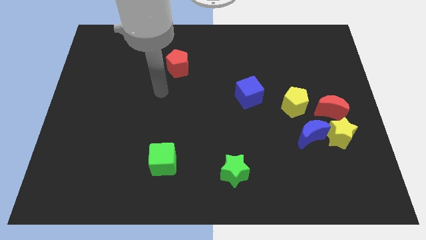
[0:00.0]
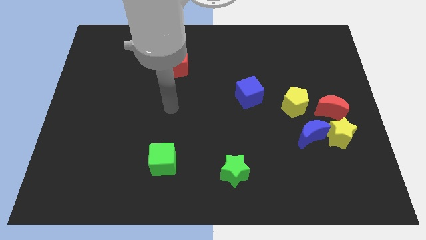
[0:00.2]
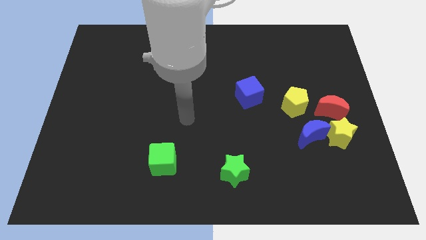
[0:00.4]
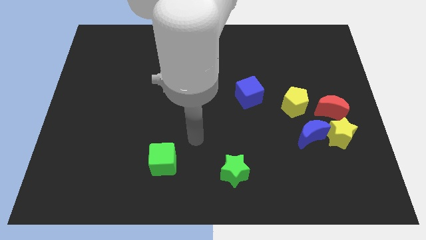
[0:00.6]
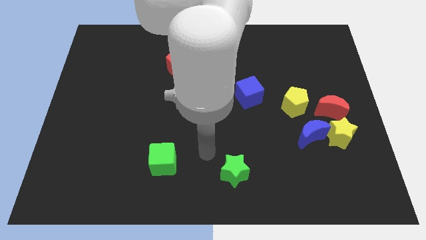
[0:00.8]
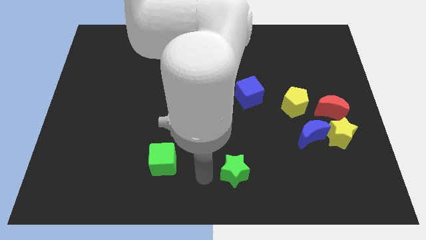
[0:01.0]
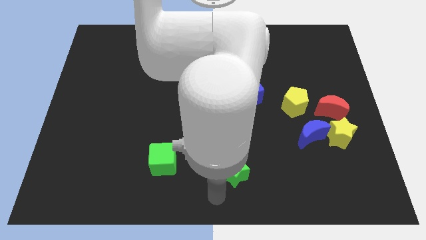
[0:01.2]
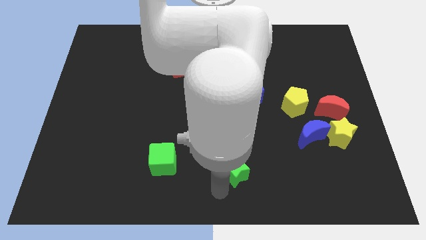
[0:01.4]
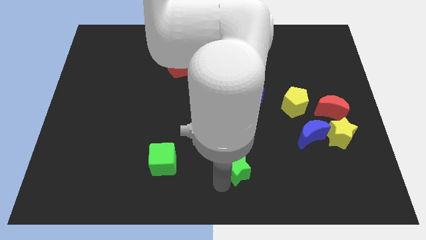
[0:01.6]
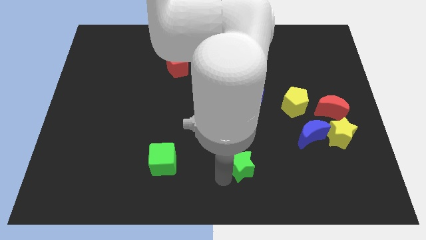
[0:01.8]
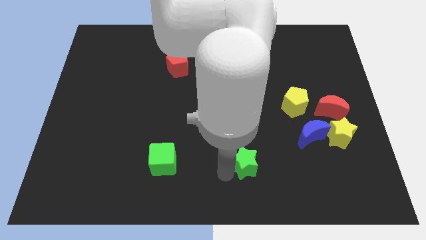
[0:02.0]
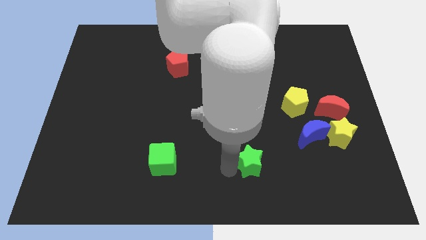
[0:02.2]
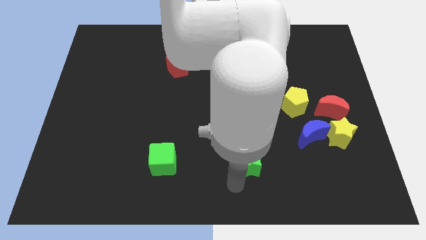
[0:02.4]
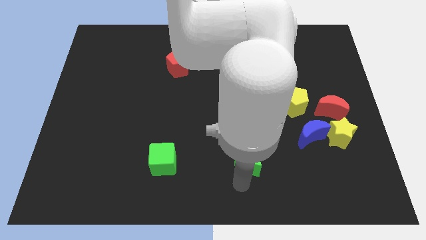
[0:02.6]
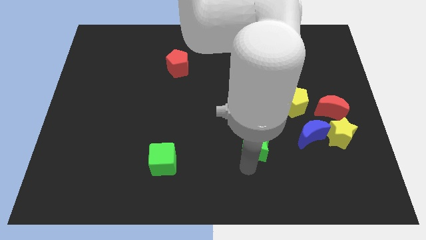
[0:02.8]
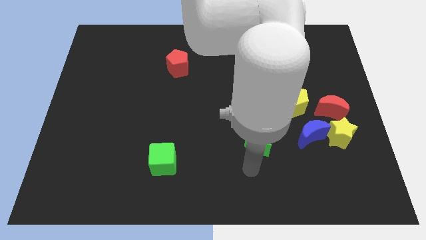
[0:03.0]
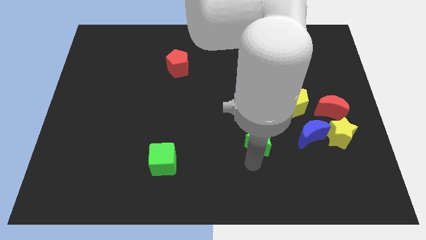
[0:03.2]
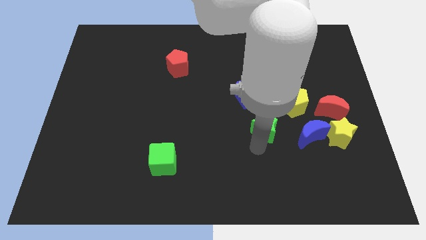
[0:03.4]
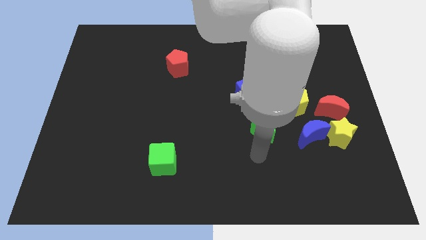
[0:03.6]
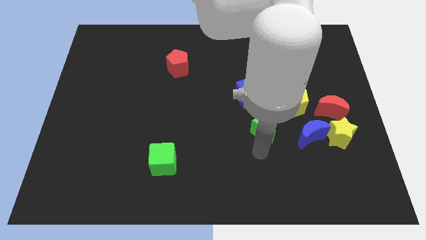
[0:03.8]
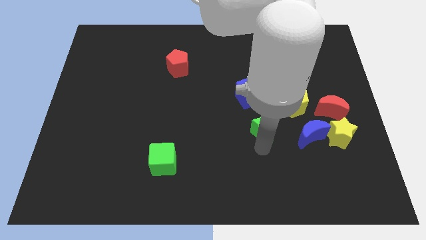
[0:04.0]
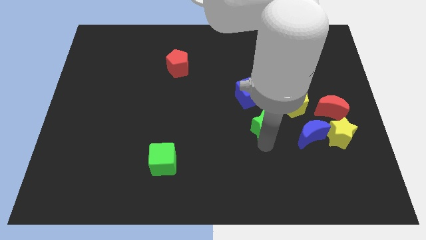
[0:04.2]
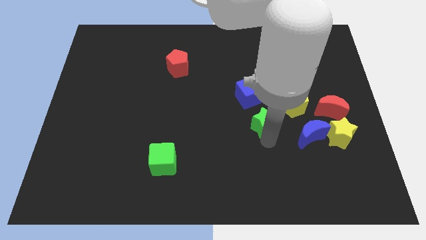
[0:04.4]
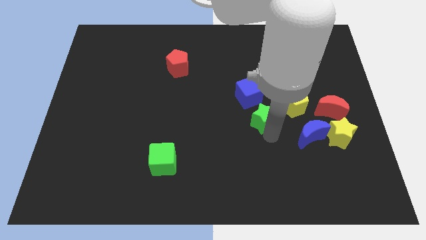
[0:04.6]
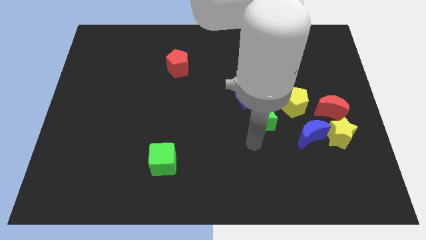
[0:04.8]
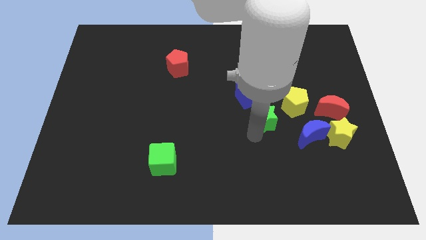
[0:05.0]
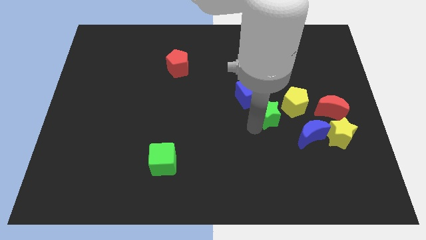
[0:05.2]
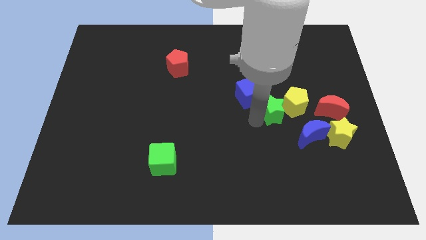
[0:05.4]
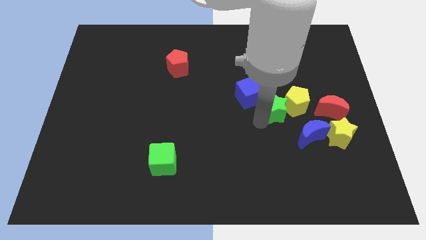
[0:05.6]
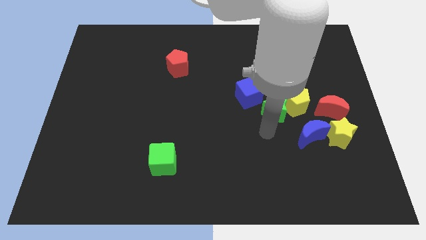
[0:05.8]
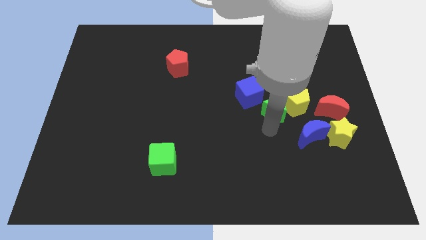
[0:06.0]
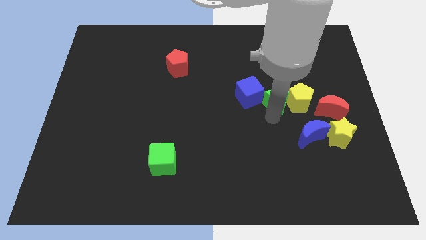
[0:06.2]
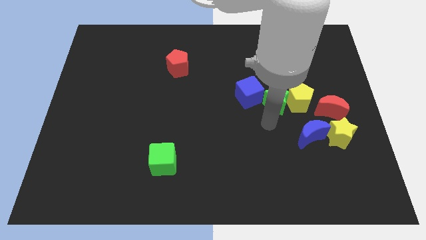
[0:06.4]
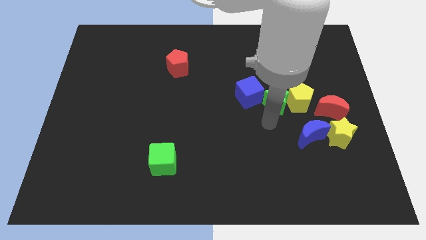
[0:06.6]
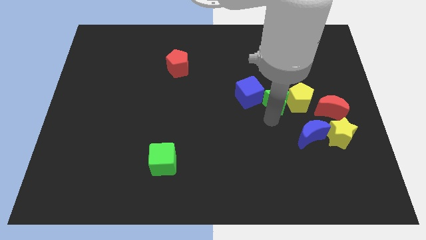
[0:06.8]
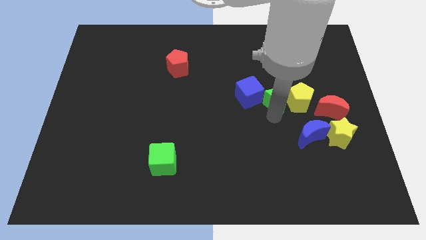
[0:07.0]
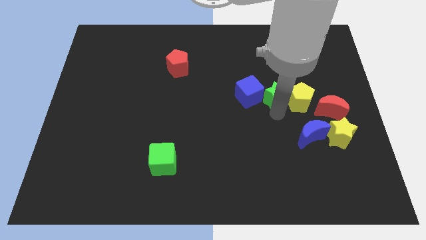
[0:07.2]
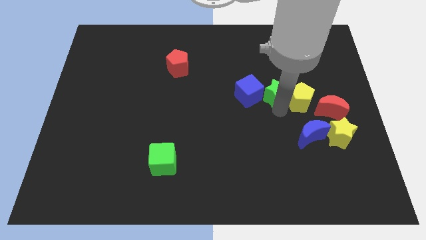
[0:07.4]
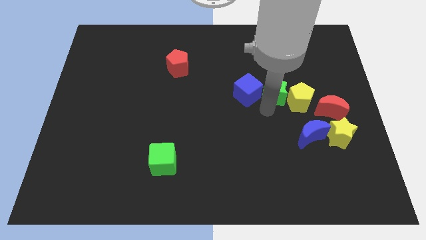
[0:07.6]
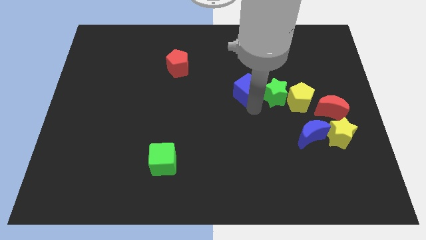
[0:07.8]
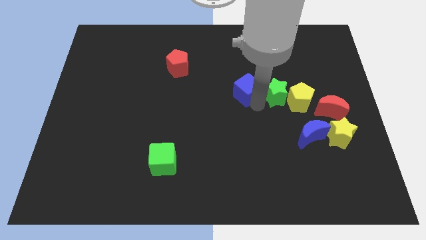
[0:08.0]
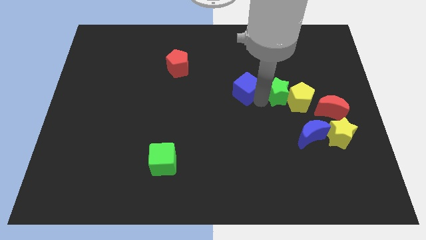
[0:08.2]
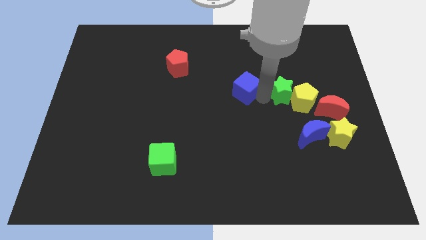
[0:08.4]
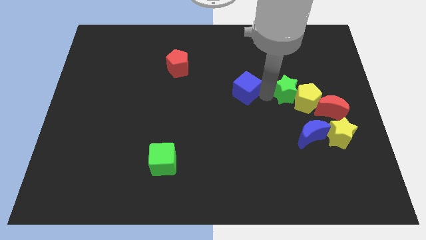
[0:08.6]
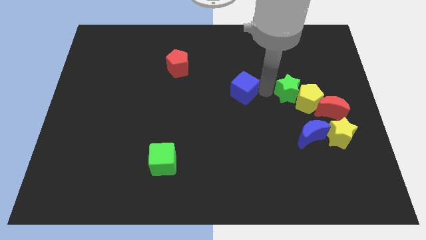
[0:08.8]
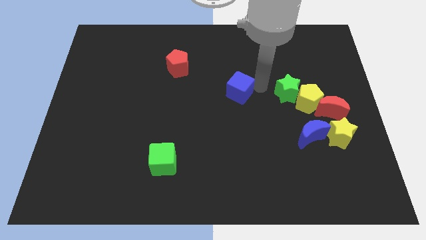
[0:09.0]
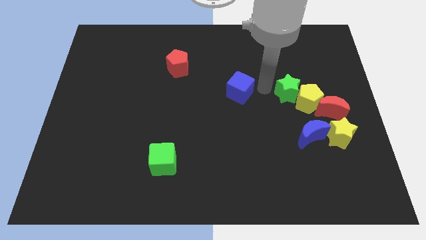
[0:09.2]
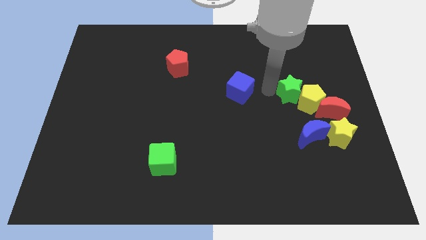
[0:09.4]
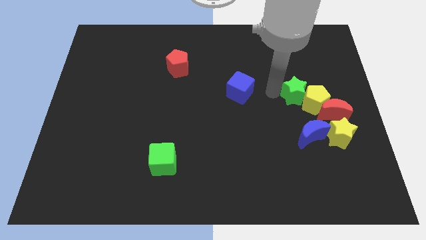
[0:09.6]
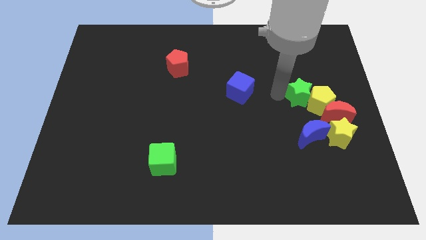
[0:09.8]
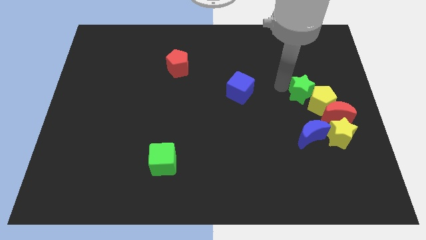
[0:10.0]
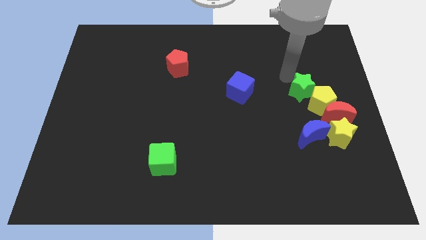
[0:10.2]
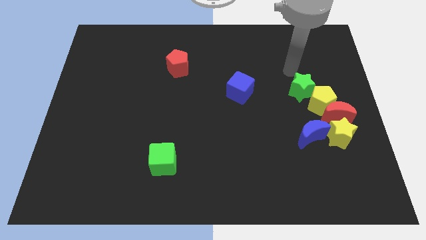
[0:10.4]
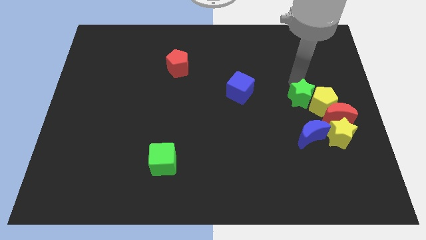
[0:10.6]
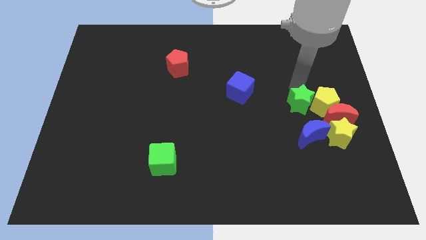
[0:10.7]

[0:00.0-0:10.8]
move the green star diagonally up and to the left of the yellow star

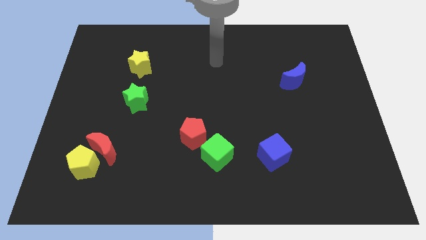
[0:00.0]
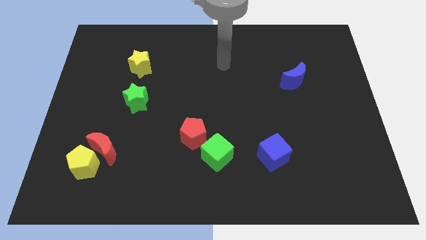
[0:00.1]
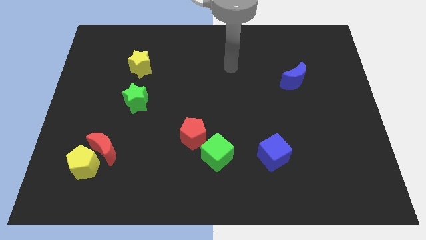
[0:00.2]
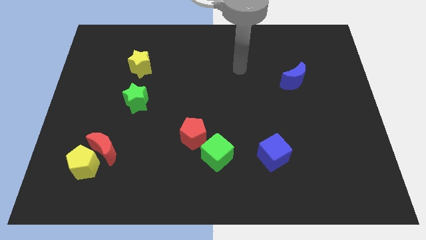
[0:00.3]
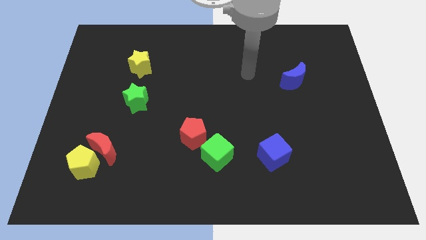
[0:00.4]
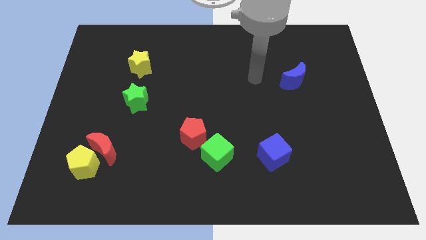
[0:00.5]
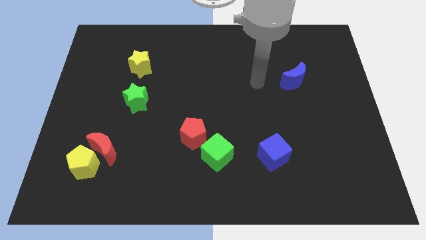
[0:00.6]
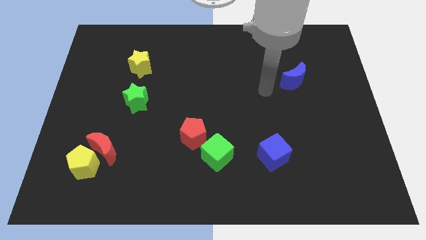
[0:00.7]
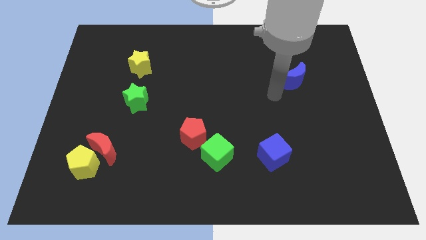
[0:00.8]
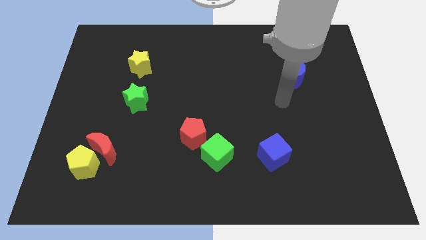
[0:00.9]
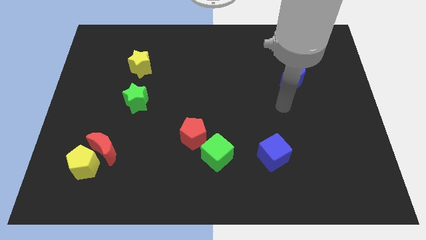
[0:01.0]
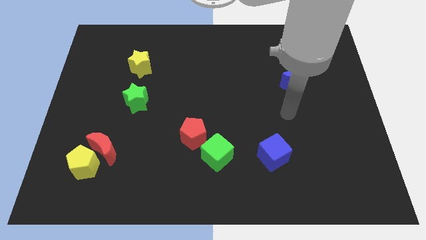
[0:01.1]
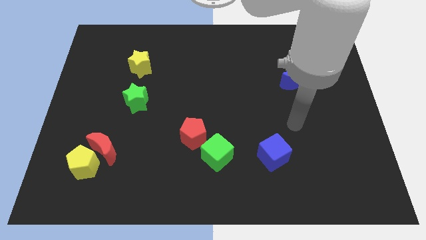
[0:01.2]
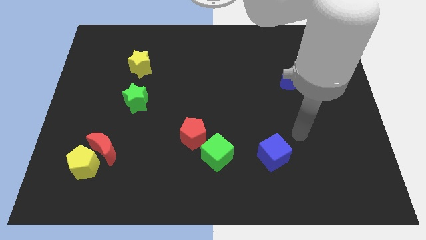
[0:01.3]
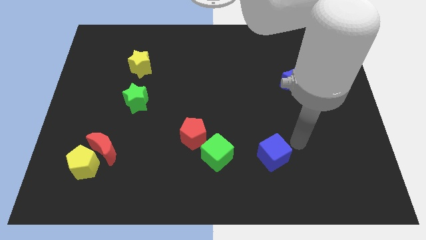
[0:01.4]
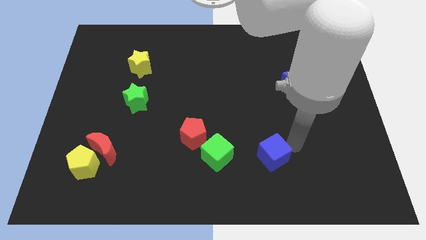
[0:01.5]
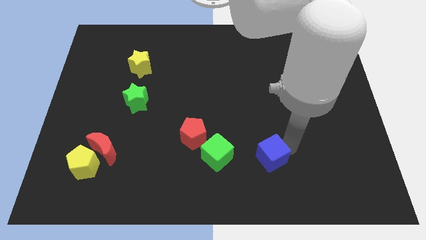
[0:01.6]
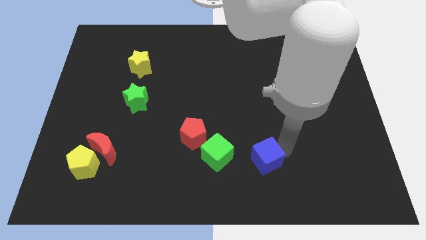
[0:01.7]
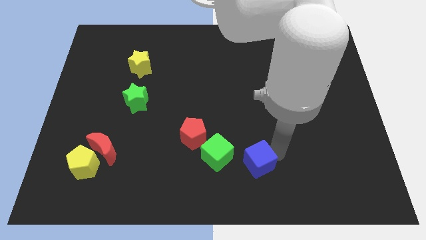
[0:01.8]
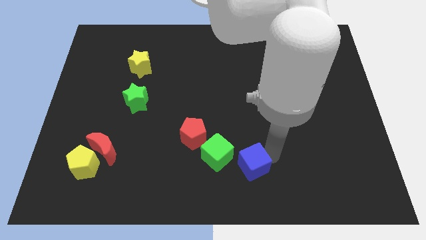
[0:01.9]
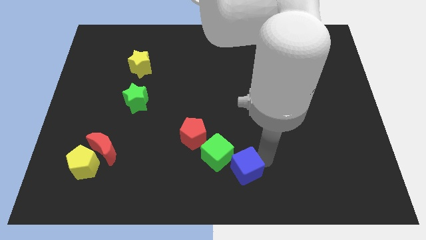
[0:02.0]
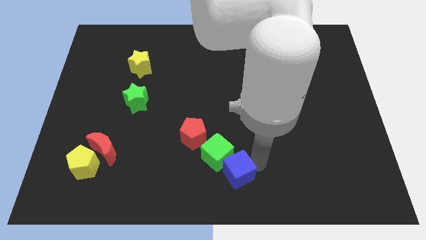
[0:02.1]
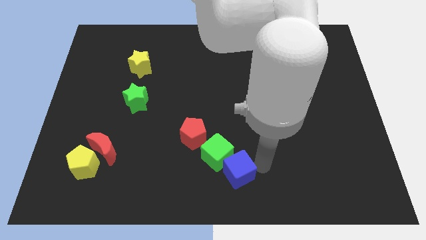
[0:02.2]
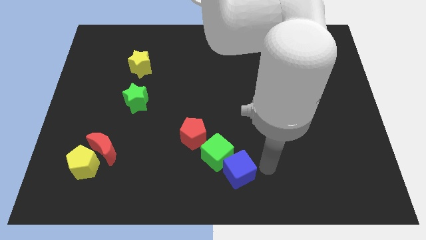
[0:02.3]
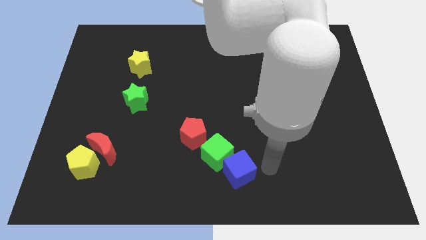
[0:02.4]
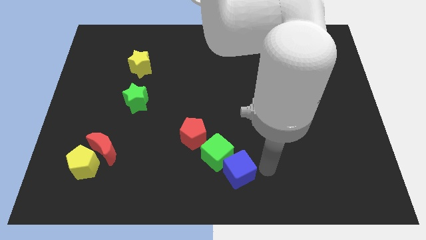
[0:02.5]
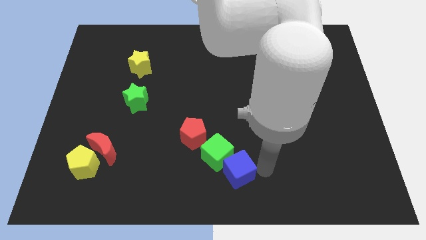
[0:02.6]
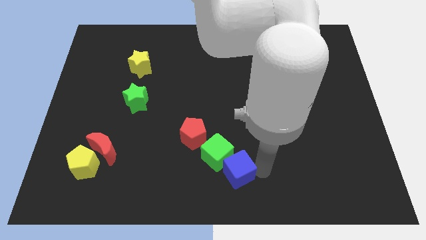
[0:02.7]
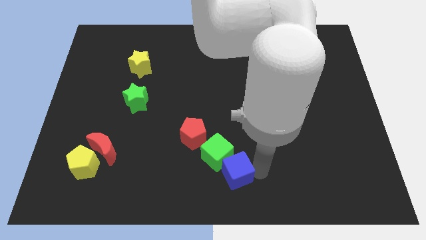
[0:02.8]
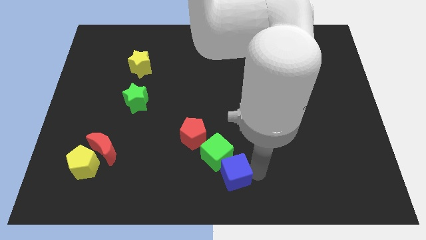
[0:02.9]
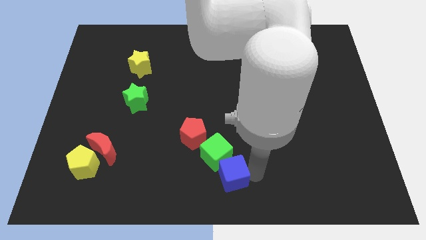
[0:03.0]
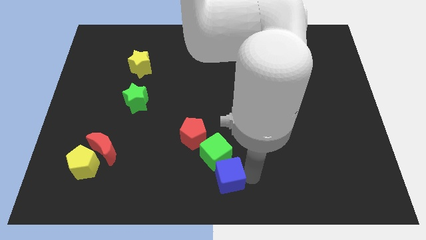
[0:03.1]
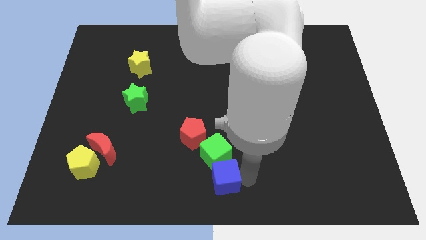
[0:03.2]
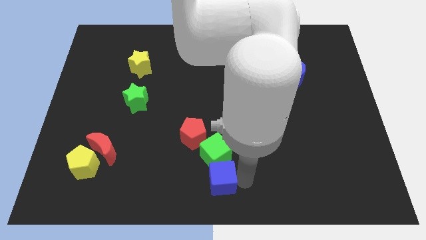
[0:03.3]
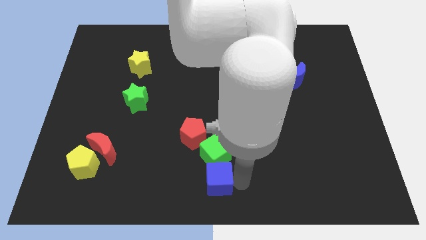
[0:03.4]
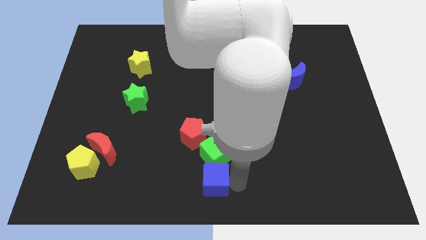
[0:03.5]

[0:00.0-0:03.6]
slide the blue cube to the bottom side of the red pentagon
